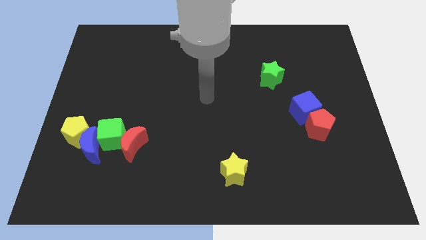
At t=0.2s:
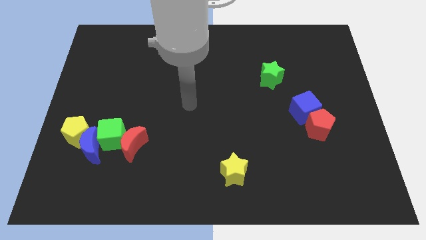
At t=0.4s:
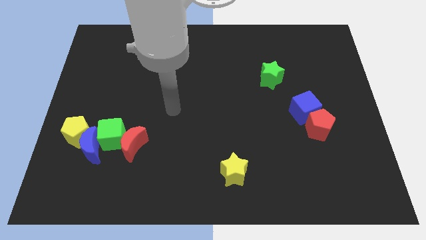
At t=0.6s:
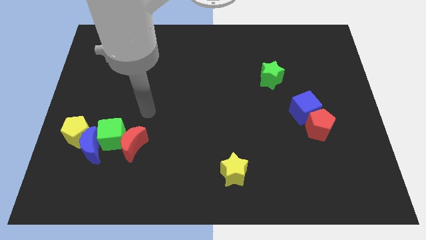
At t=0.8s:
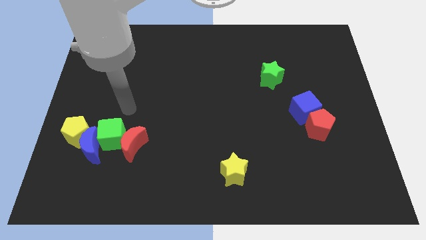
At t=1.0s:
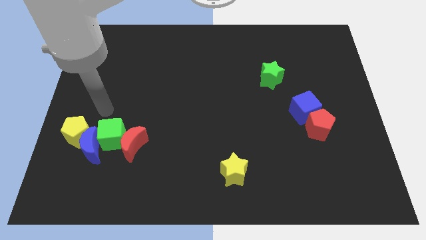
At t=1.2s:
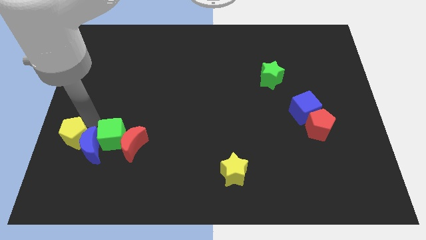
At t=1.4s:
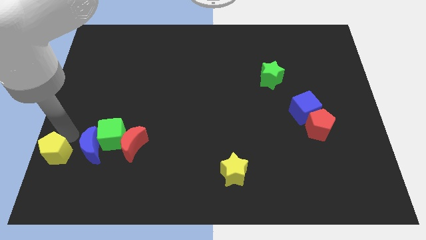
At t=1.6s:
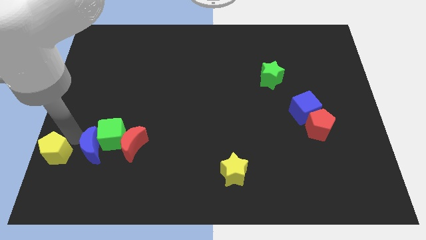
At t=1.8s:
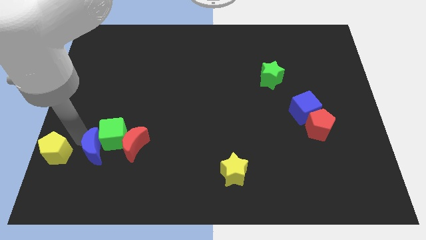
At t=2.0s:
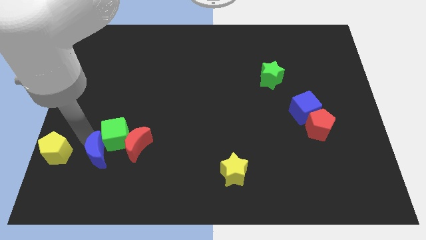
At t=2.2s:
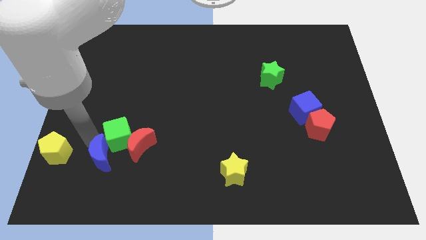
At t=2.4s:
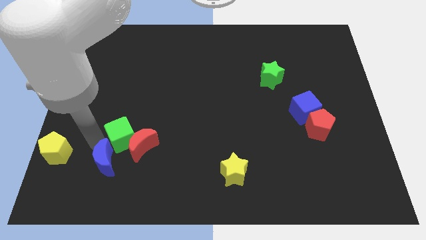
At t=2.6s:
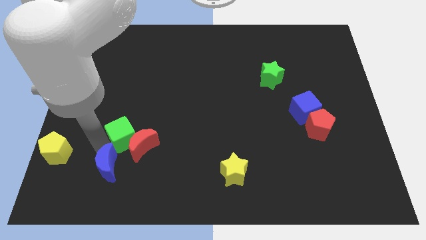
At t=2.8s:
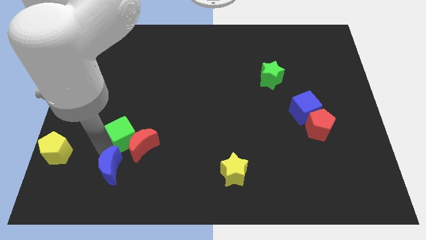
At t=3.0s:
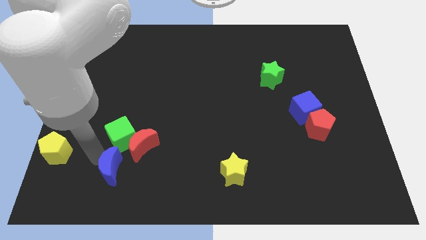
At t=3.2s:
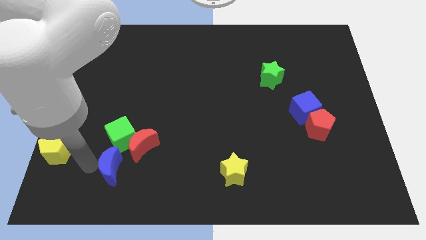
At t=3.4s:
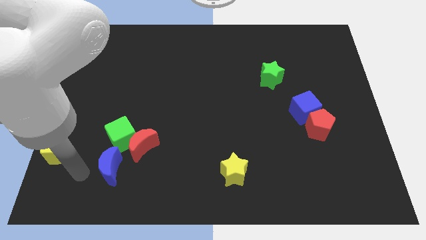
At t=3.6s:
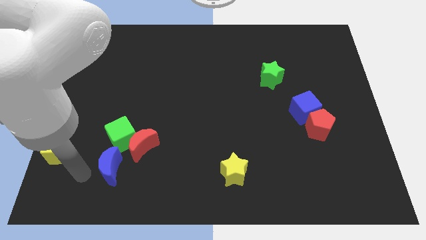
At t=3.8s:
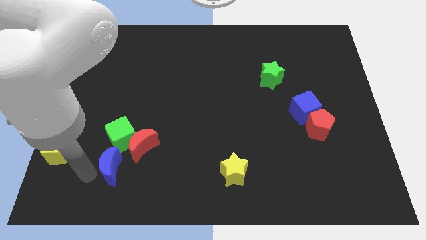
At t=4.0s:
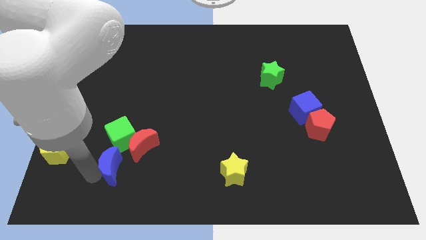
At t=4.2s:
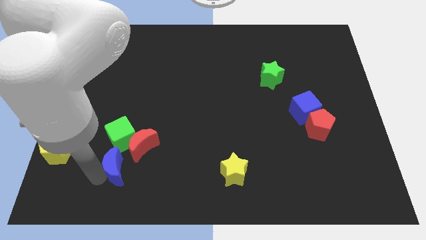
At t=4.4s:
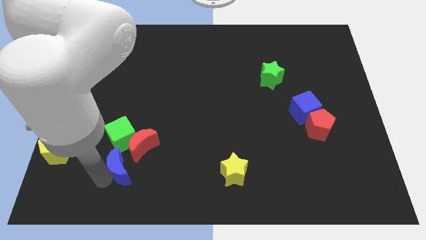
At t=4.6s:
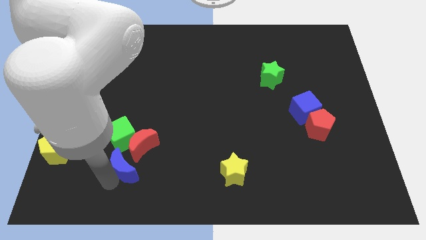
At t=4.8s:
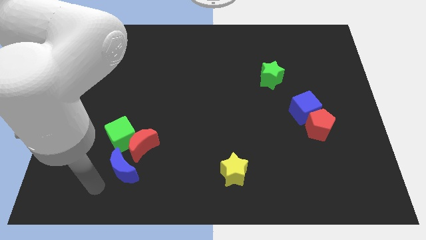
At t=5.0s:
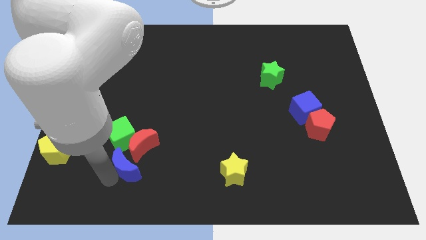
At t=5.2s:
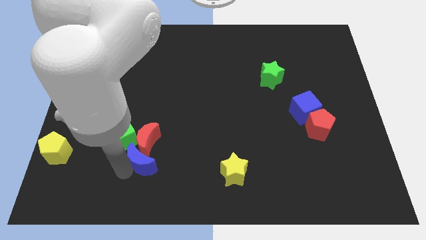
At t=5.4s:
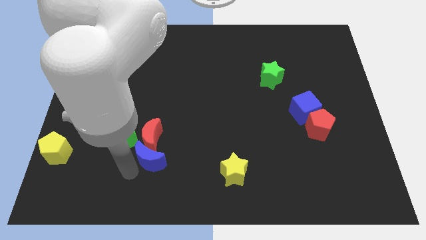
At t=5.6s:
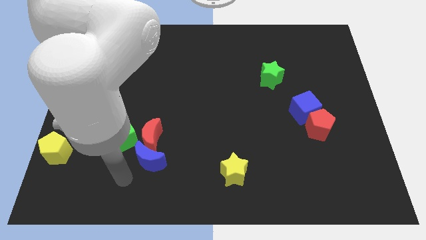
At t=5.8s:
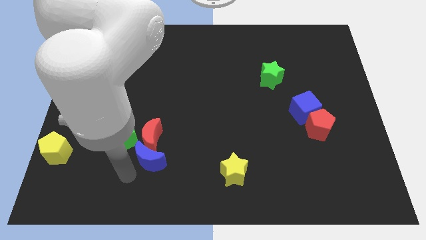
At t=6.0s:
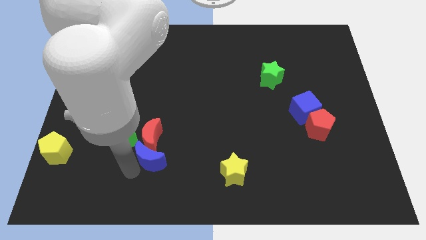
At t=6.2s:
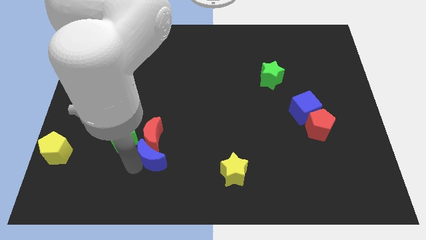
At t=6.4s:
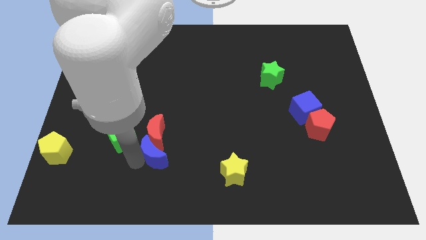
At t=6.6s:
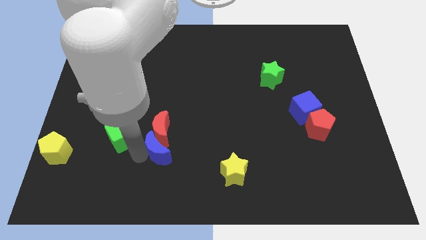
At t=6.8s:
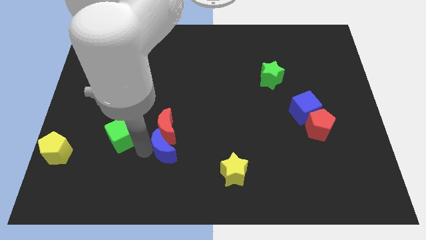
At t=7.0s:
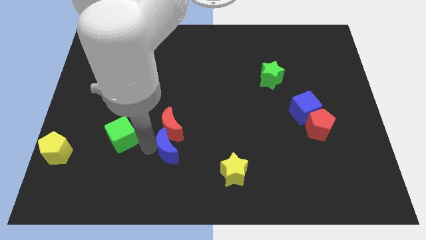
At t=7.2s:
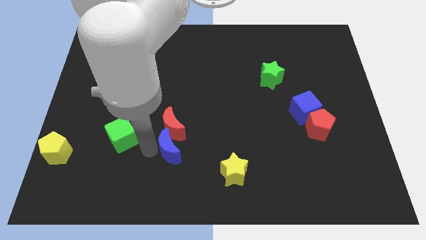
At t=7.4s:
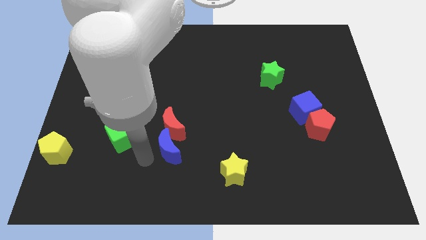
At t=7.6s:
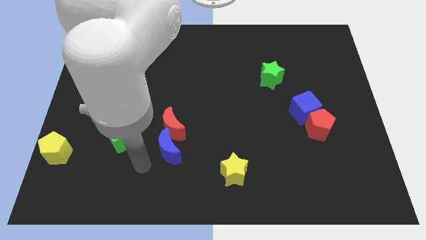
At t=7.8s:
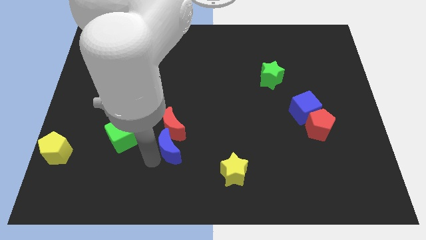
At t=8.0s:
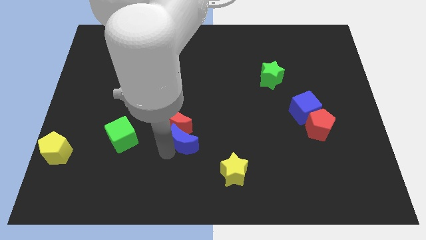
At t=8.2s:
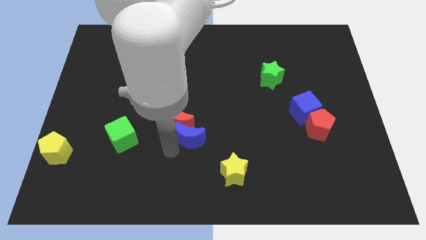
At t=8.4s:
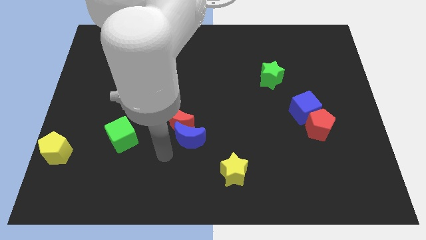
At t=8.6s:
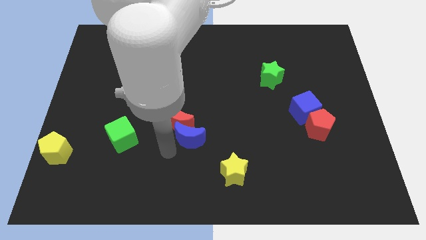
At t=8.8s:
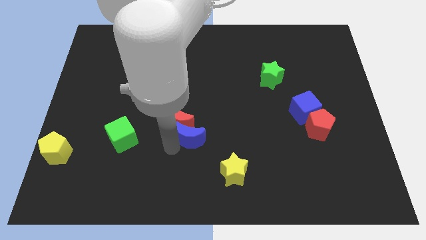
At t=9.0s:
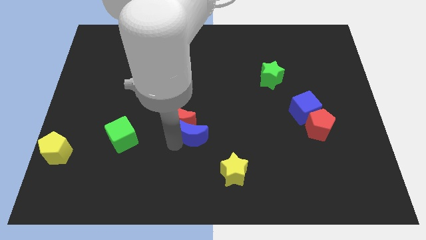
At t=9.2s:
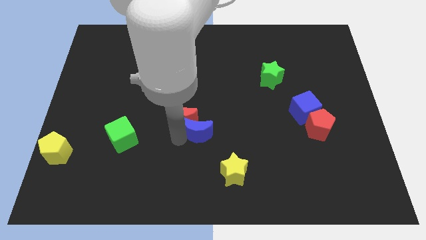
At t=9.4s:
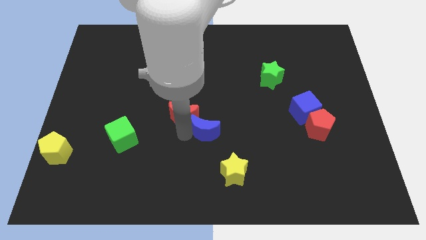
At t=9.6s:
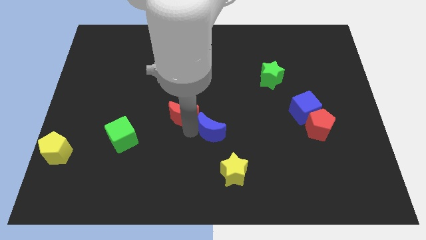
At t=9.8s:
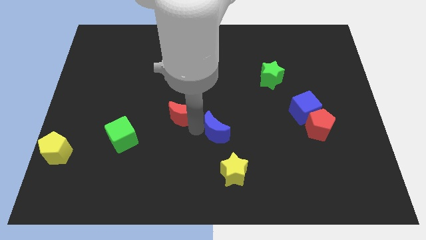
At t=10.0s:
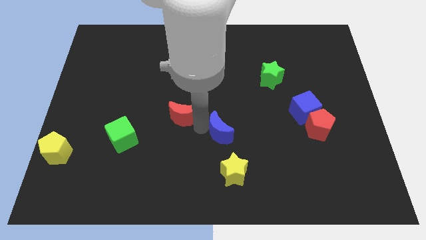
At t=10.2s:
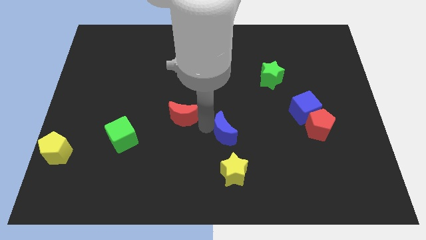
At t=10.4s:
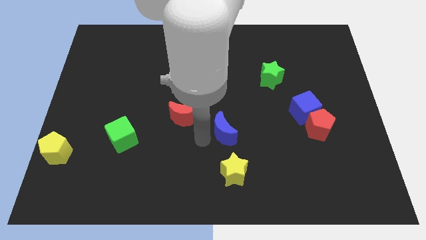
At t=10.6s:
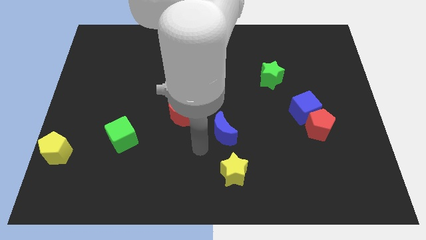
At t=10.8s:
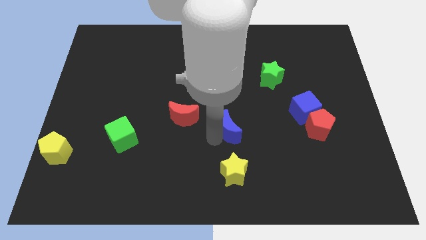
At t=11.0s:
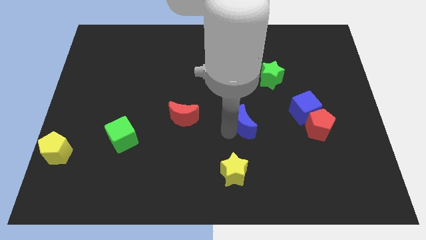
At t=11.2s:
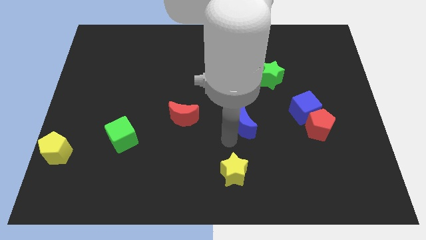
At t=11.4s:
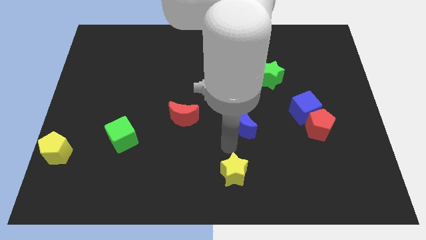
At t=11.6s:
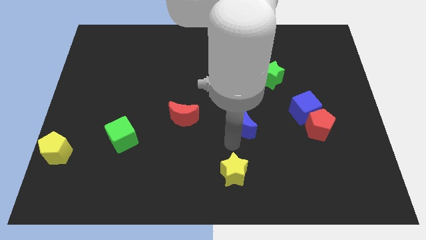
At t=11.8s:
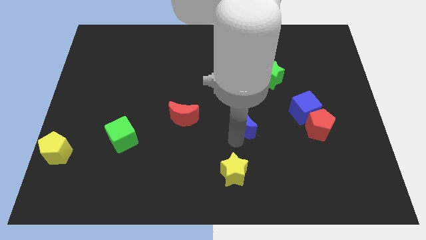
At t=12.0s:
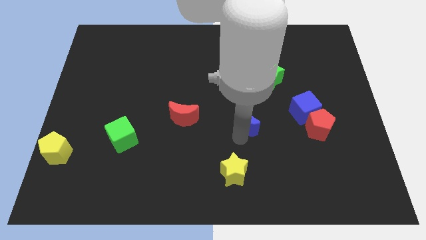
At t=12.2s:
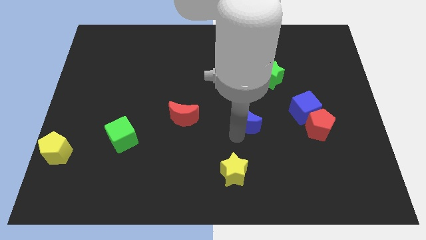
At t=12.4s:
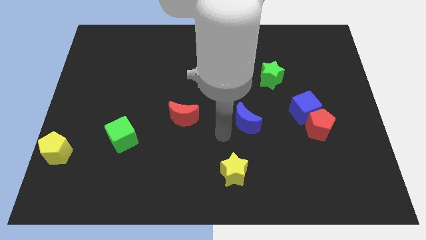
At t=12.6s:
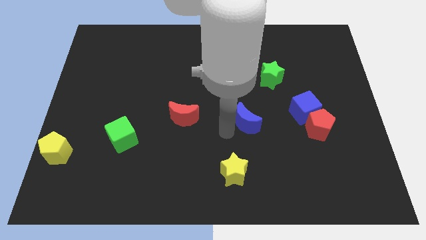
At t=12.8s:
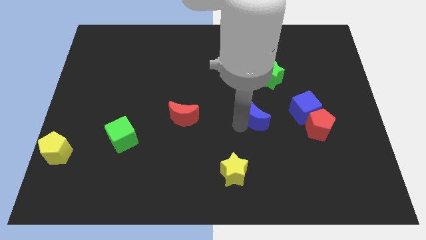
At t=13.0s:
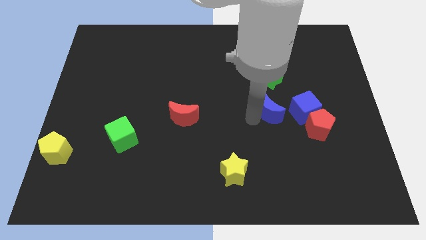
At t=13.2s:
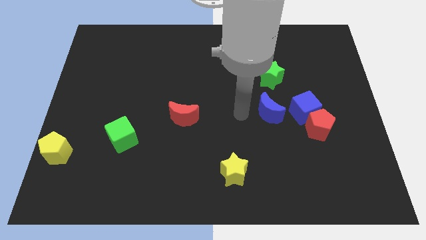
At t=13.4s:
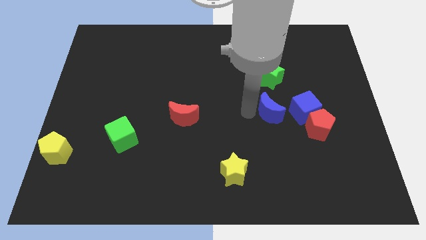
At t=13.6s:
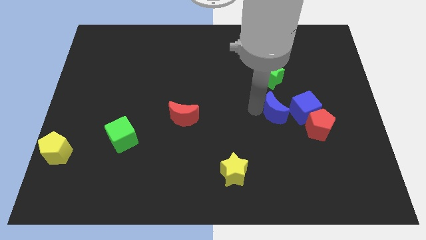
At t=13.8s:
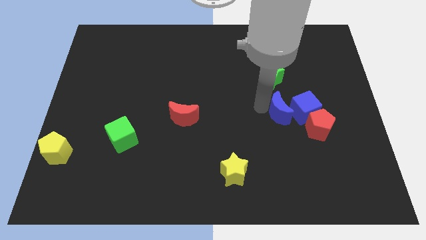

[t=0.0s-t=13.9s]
push the blue moon towards the blue cube
